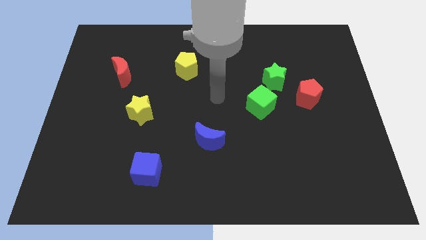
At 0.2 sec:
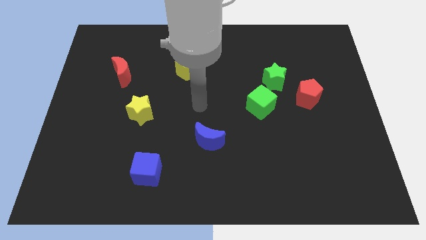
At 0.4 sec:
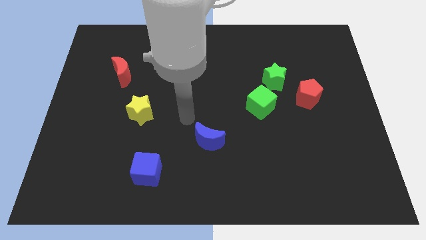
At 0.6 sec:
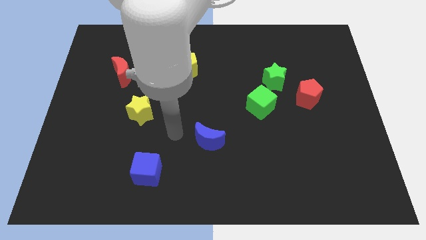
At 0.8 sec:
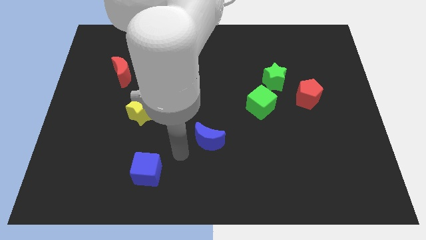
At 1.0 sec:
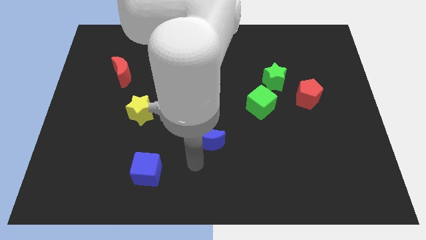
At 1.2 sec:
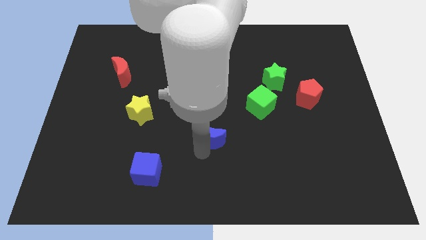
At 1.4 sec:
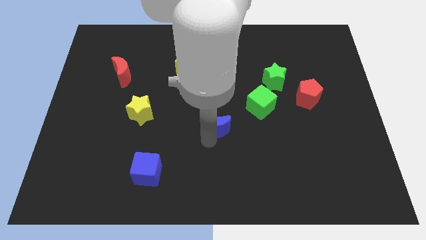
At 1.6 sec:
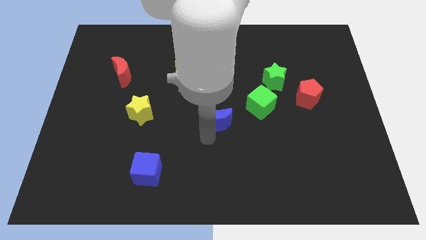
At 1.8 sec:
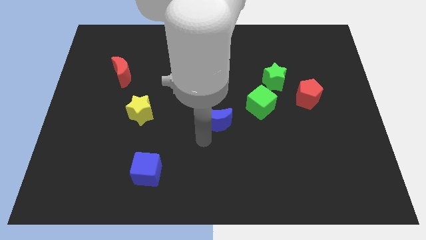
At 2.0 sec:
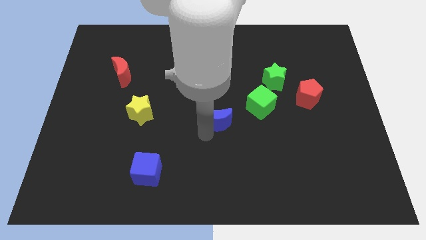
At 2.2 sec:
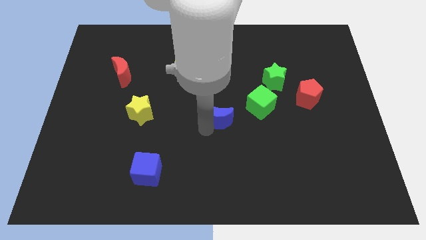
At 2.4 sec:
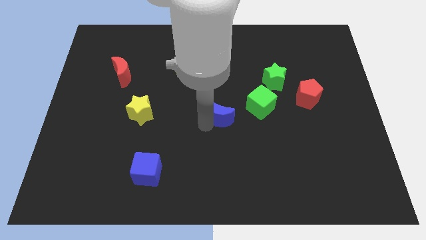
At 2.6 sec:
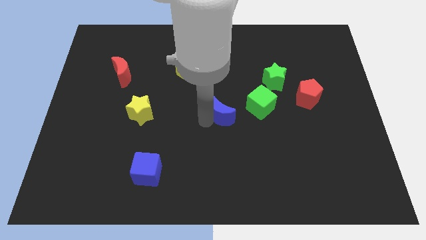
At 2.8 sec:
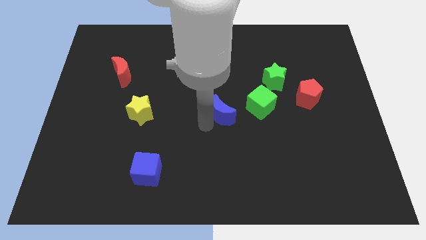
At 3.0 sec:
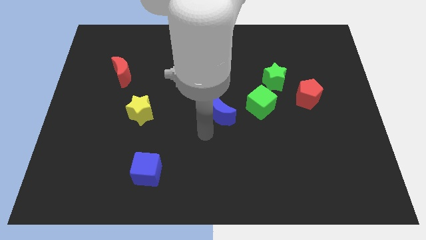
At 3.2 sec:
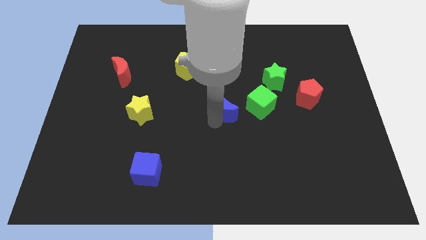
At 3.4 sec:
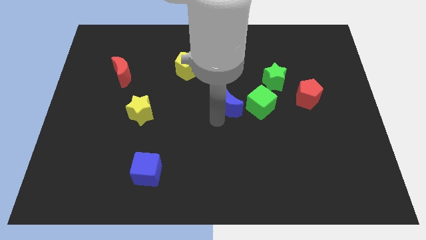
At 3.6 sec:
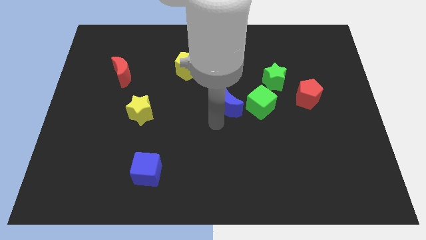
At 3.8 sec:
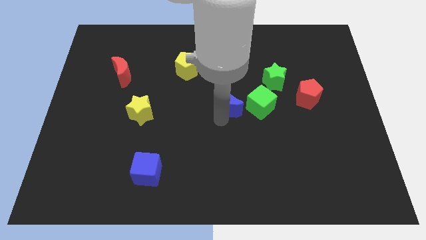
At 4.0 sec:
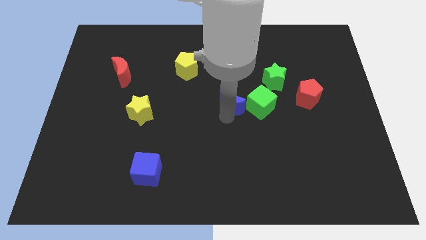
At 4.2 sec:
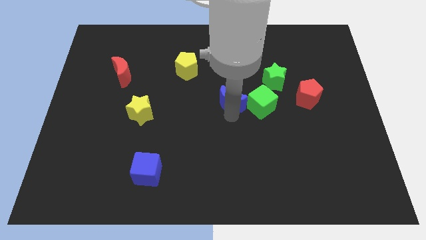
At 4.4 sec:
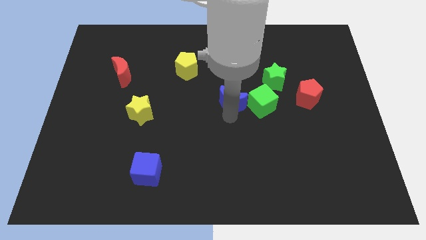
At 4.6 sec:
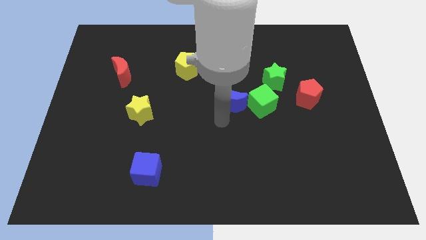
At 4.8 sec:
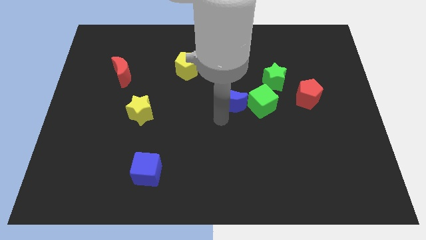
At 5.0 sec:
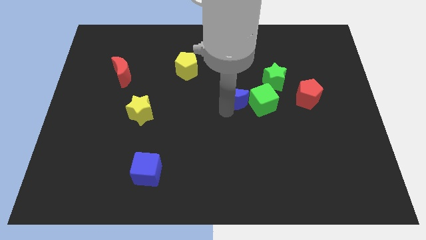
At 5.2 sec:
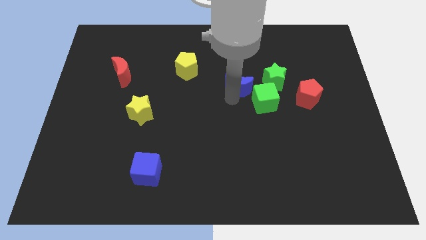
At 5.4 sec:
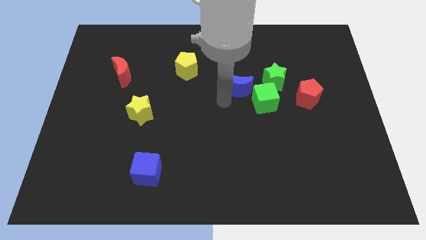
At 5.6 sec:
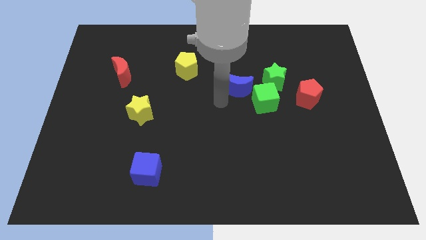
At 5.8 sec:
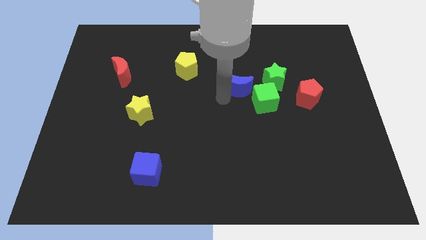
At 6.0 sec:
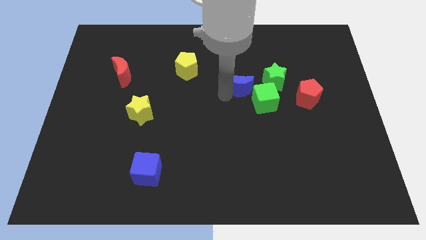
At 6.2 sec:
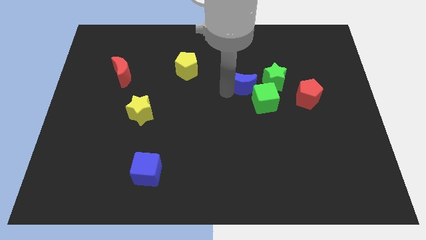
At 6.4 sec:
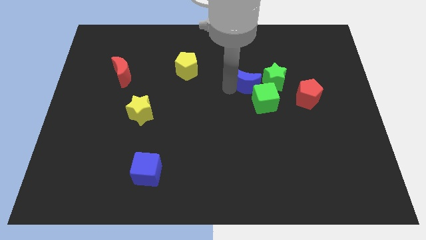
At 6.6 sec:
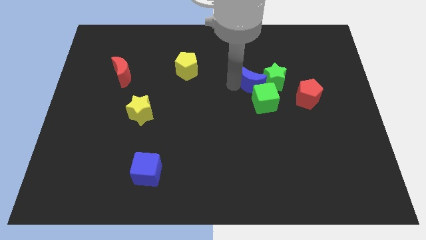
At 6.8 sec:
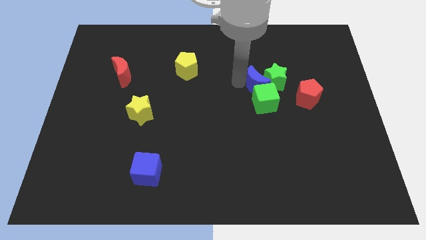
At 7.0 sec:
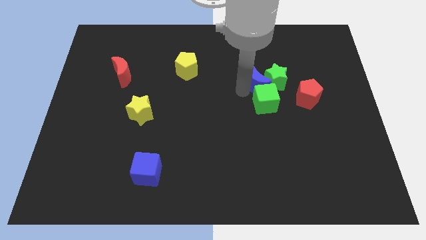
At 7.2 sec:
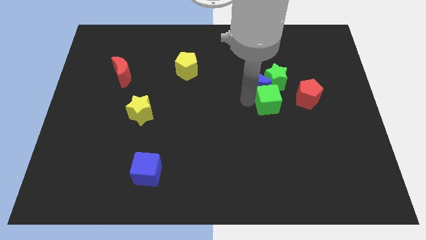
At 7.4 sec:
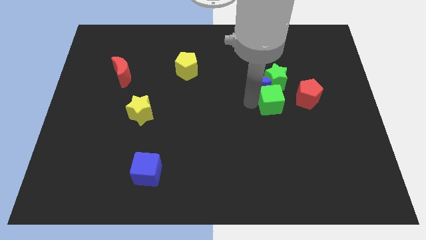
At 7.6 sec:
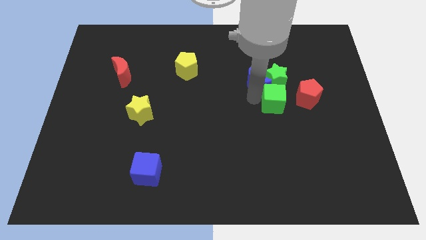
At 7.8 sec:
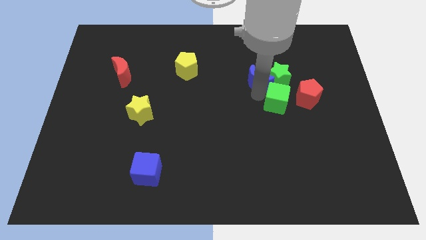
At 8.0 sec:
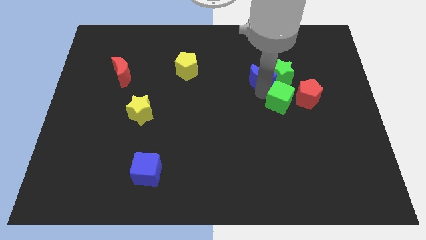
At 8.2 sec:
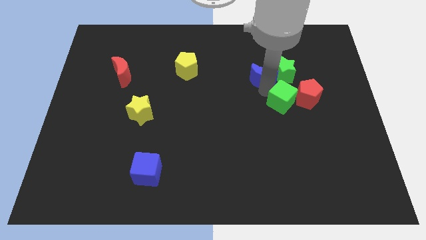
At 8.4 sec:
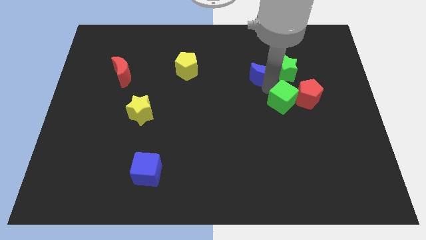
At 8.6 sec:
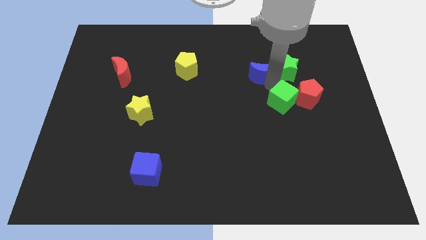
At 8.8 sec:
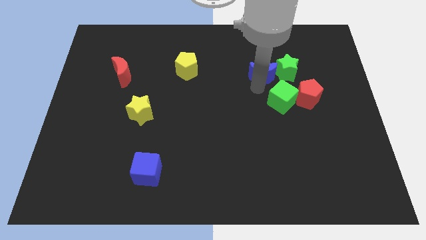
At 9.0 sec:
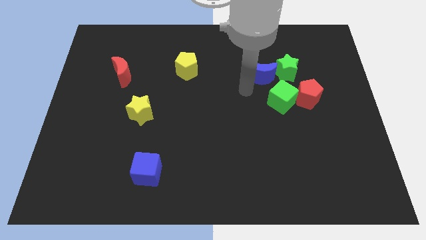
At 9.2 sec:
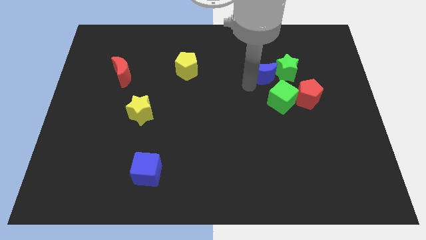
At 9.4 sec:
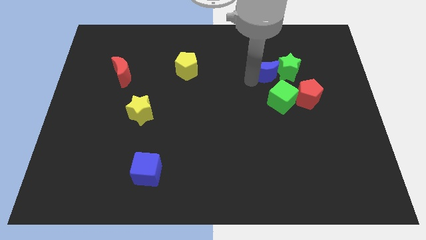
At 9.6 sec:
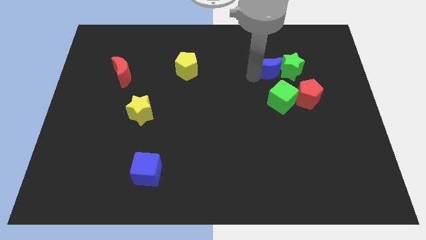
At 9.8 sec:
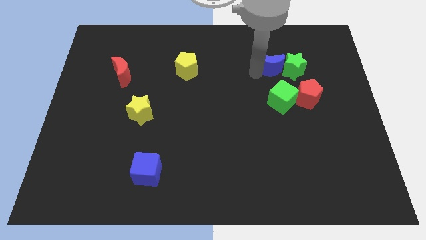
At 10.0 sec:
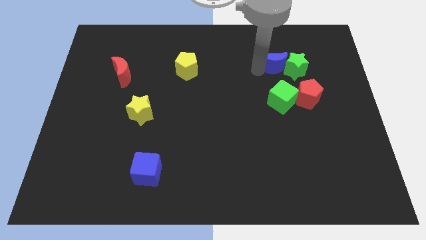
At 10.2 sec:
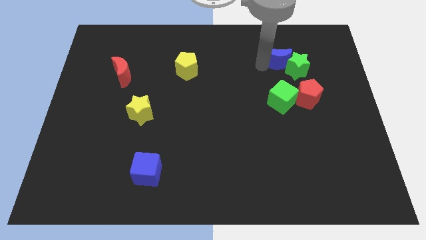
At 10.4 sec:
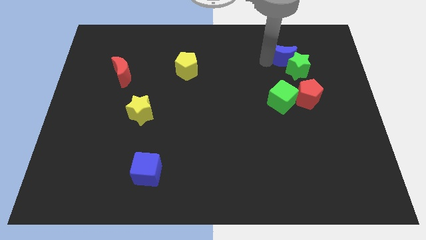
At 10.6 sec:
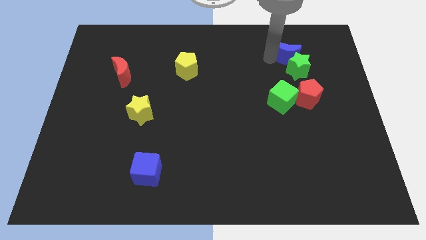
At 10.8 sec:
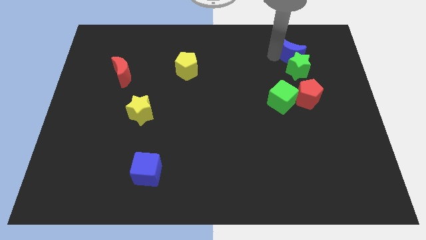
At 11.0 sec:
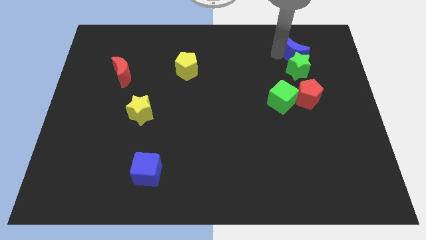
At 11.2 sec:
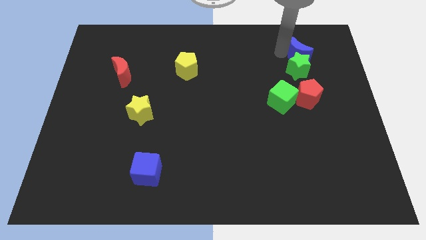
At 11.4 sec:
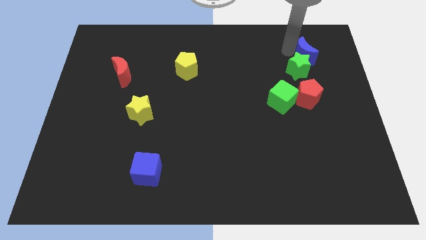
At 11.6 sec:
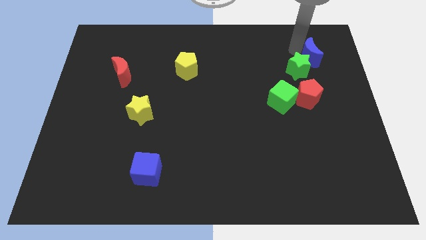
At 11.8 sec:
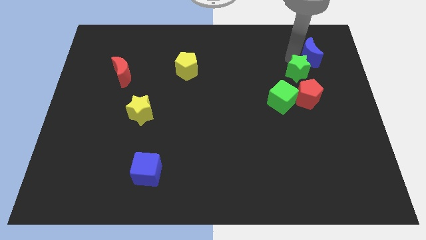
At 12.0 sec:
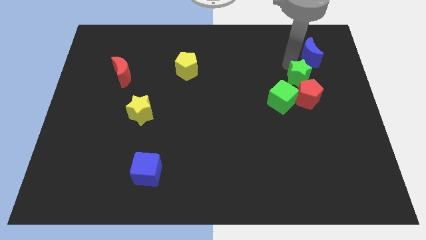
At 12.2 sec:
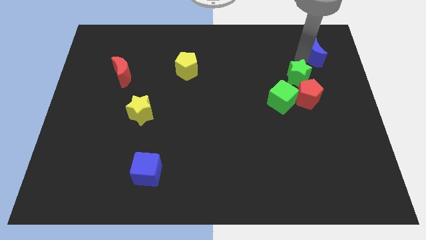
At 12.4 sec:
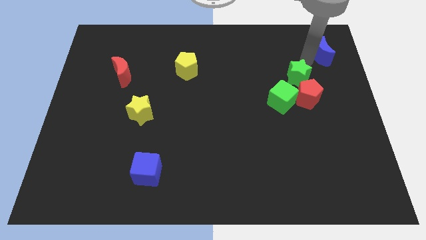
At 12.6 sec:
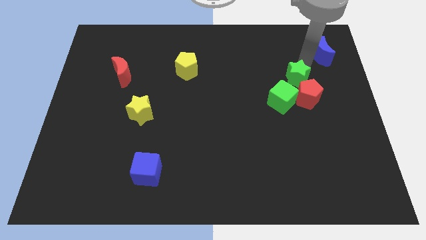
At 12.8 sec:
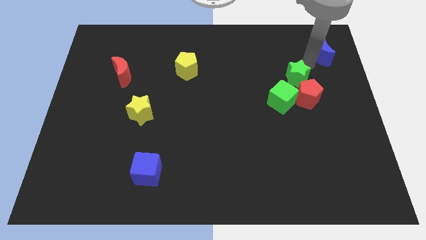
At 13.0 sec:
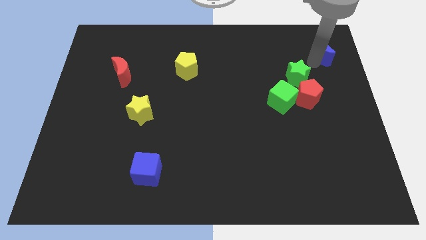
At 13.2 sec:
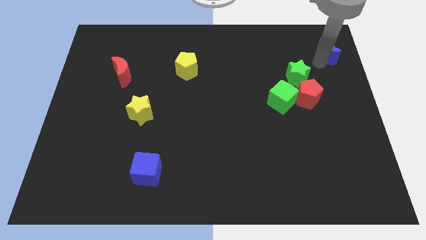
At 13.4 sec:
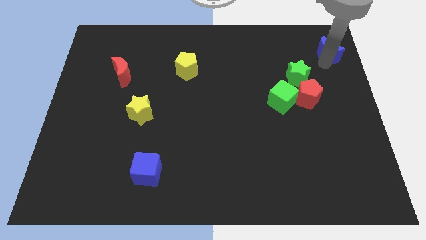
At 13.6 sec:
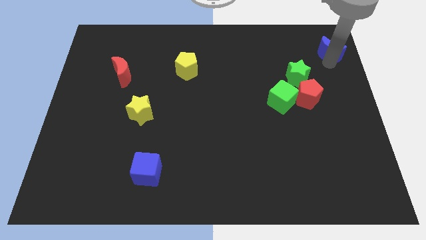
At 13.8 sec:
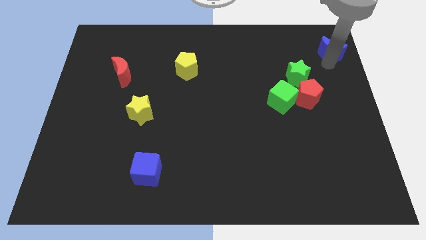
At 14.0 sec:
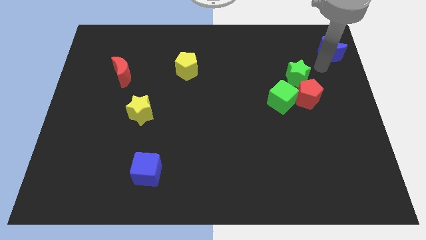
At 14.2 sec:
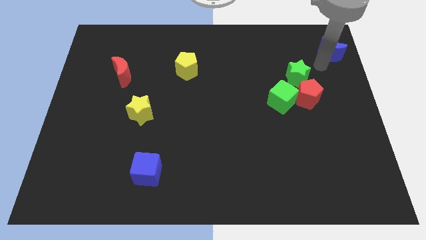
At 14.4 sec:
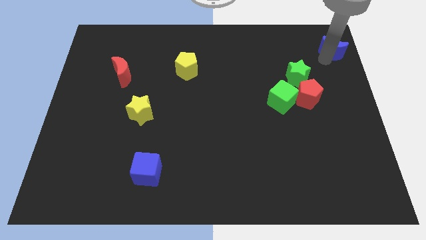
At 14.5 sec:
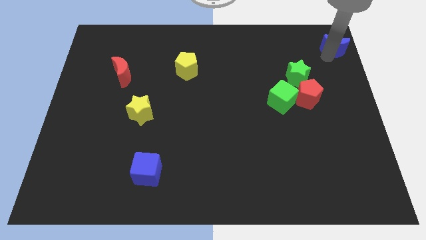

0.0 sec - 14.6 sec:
push the blue moon to the top right corner
